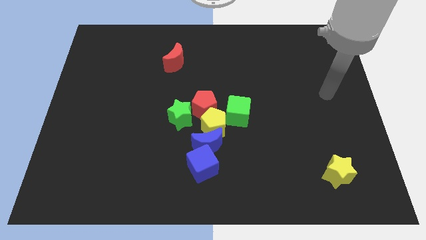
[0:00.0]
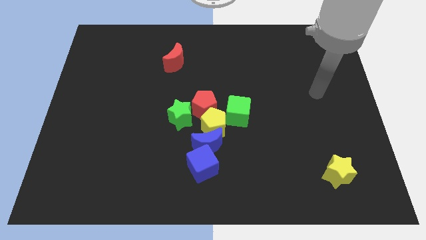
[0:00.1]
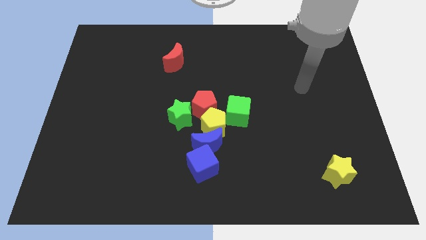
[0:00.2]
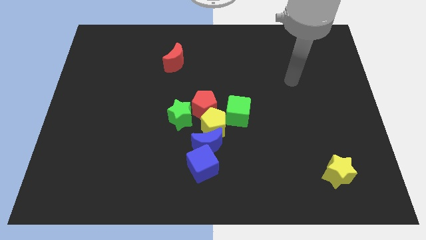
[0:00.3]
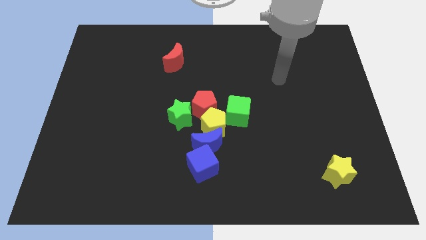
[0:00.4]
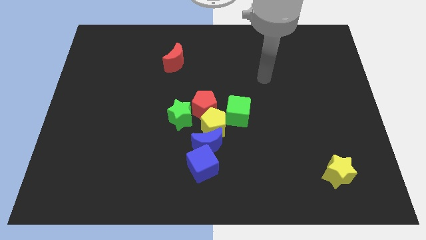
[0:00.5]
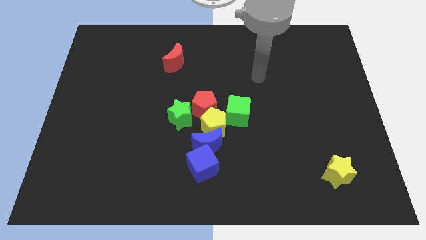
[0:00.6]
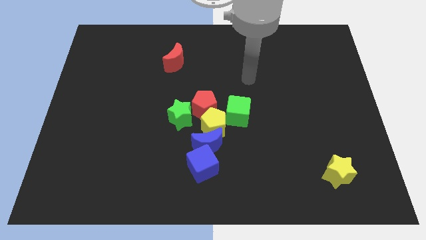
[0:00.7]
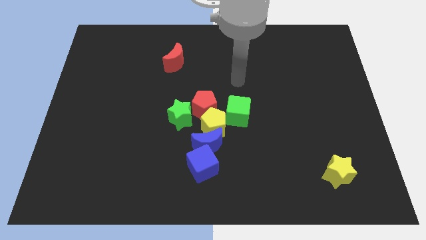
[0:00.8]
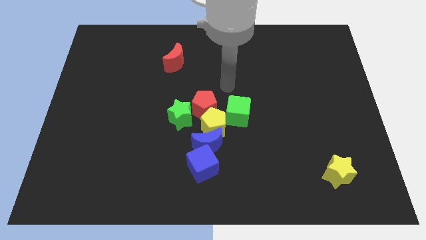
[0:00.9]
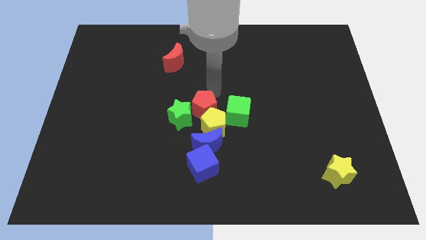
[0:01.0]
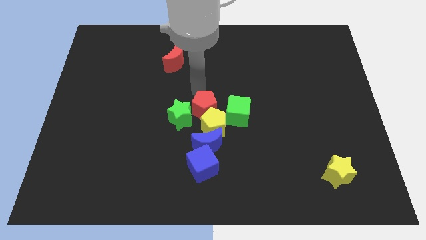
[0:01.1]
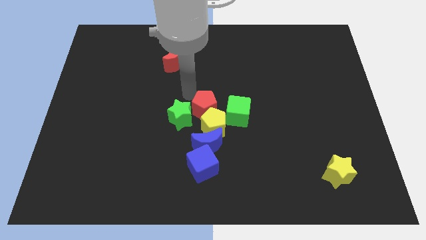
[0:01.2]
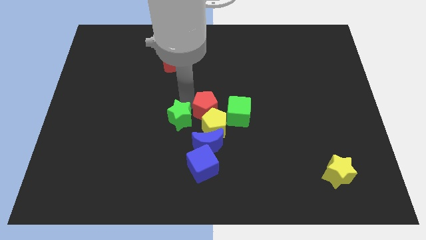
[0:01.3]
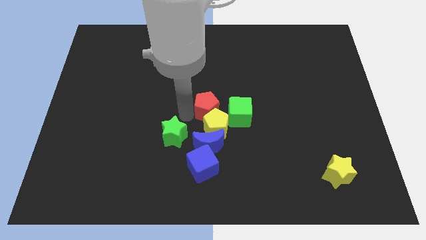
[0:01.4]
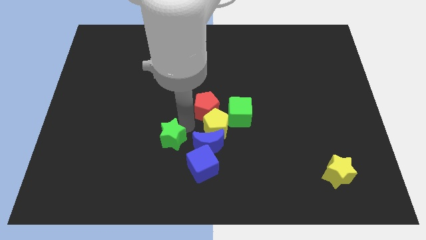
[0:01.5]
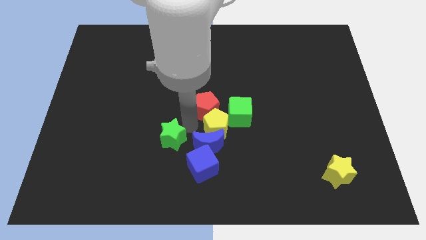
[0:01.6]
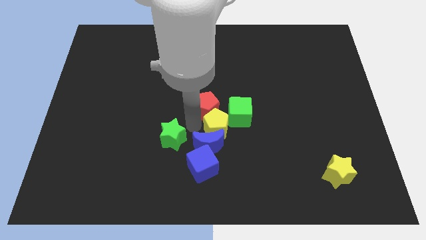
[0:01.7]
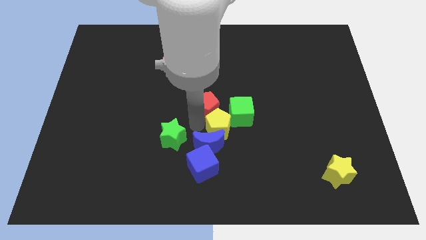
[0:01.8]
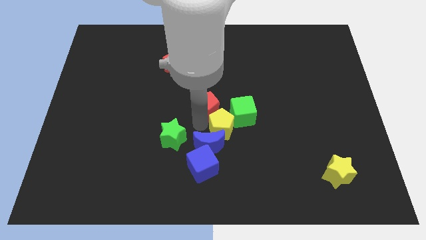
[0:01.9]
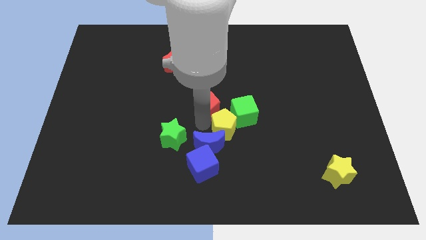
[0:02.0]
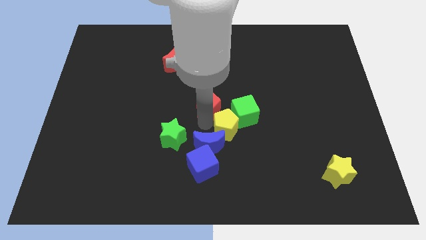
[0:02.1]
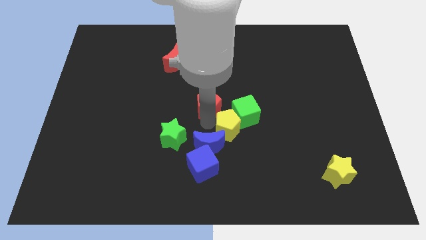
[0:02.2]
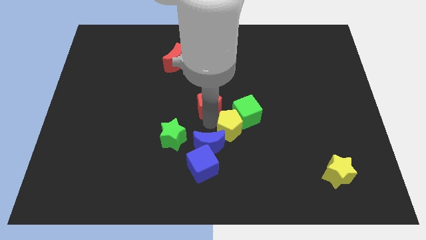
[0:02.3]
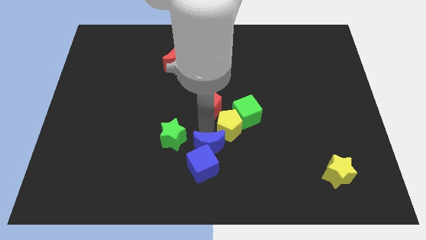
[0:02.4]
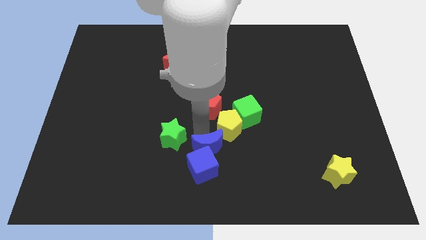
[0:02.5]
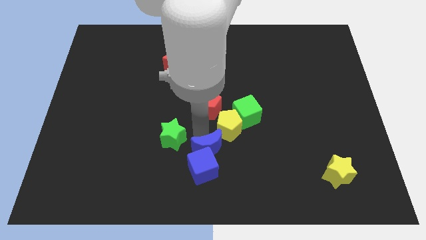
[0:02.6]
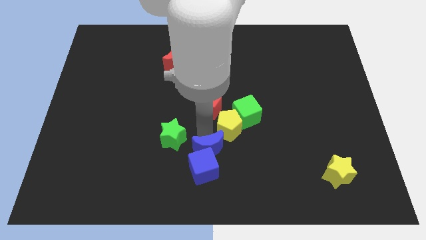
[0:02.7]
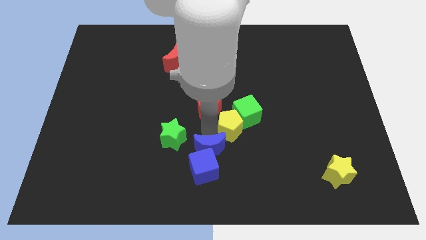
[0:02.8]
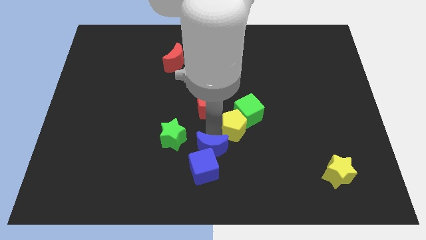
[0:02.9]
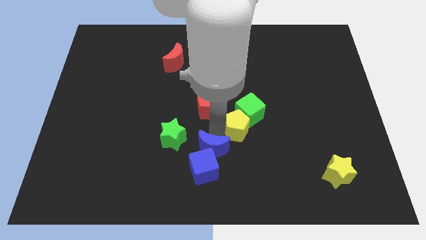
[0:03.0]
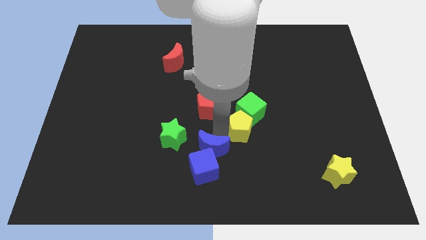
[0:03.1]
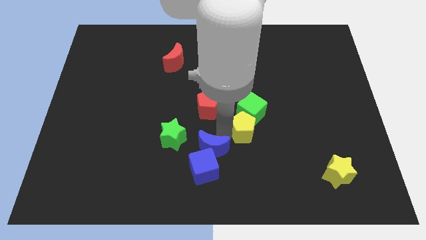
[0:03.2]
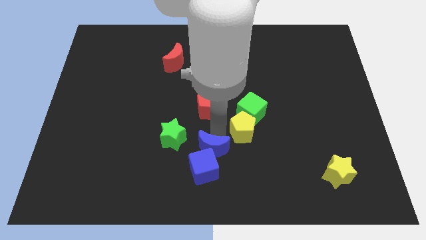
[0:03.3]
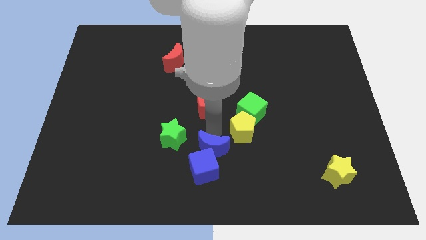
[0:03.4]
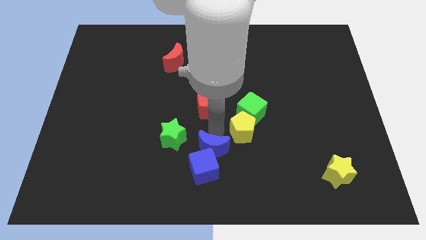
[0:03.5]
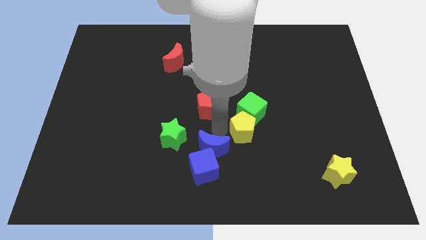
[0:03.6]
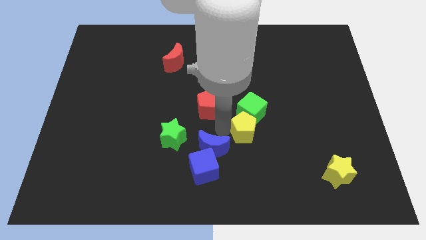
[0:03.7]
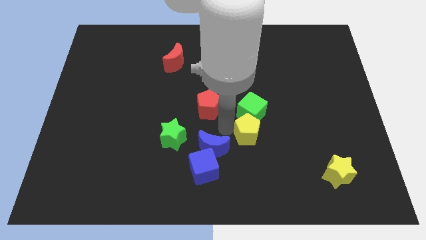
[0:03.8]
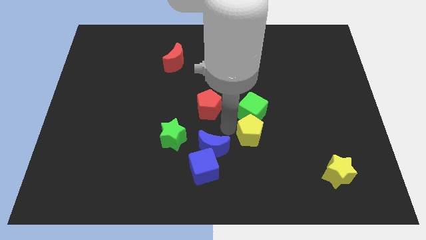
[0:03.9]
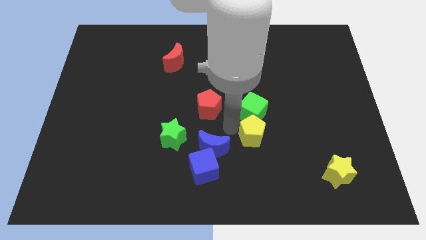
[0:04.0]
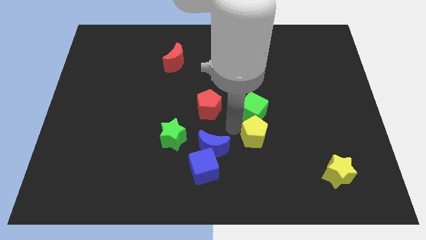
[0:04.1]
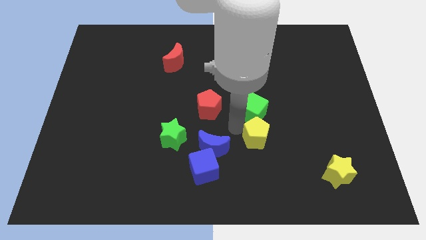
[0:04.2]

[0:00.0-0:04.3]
pull the yellow pentagon apart from the group

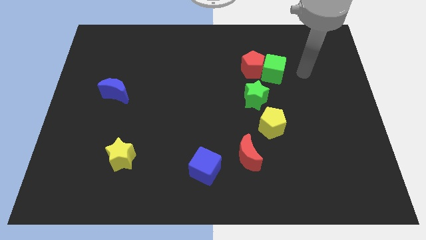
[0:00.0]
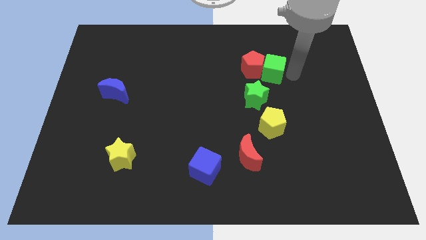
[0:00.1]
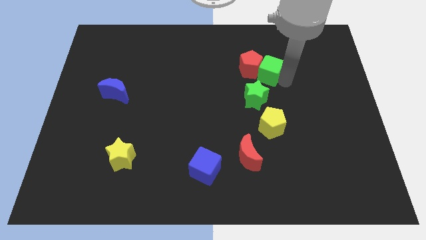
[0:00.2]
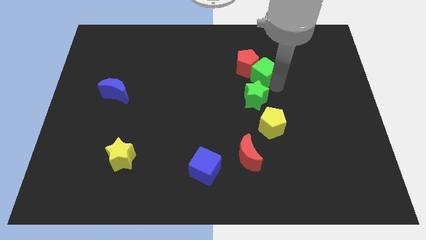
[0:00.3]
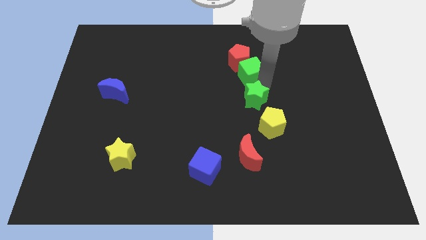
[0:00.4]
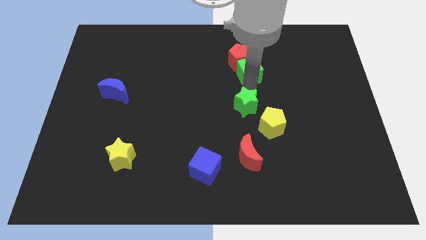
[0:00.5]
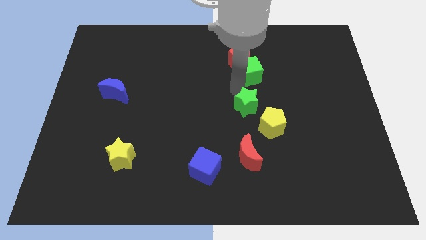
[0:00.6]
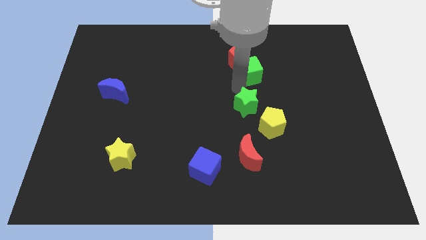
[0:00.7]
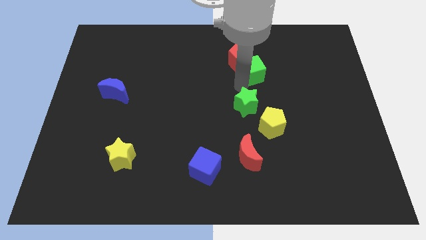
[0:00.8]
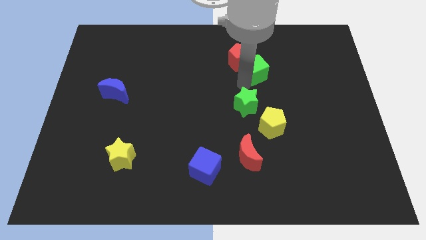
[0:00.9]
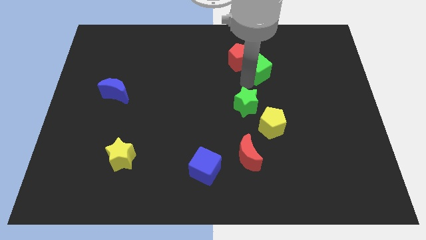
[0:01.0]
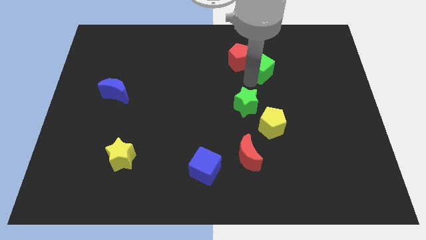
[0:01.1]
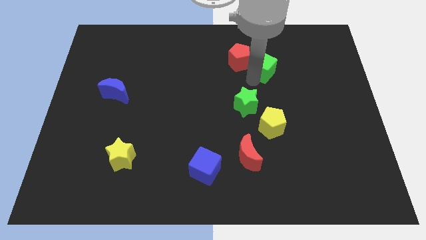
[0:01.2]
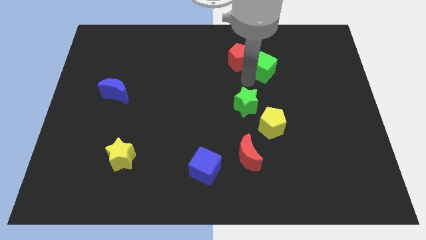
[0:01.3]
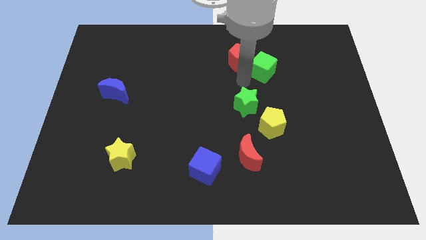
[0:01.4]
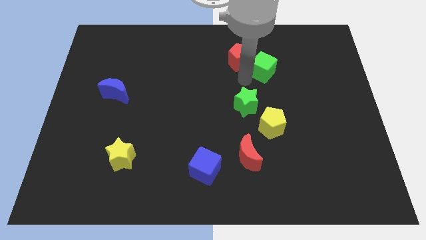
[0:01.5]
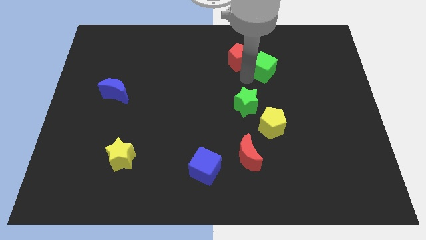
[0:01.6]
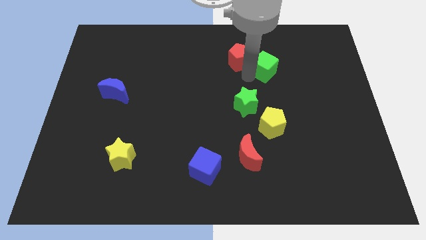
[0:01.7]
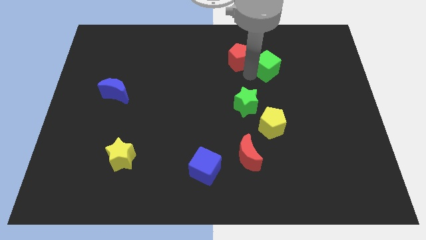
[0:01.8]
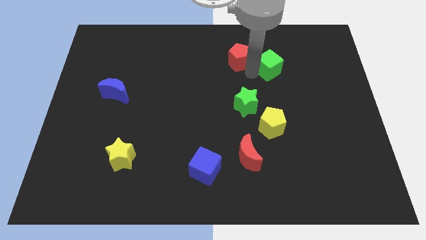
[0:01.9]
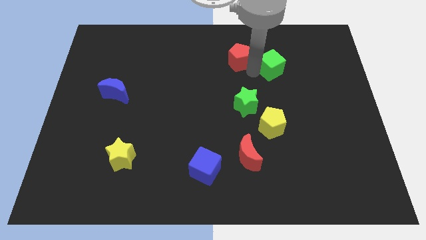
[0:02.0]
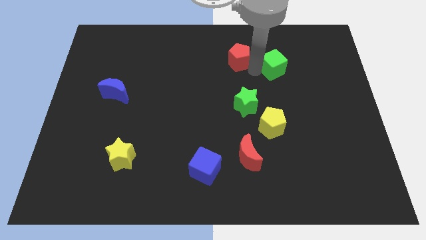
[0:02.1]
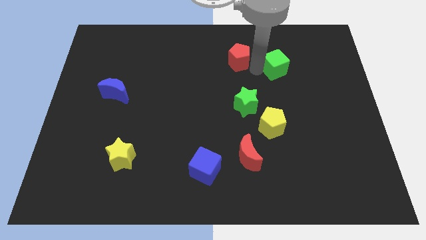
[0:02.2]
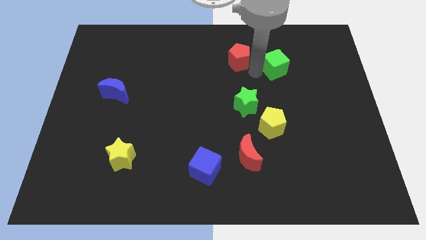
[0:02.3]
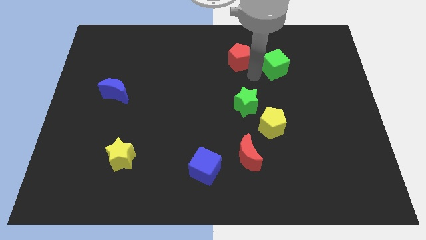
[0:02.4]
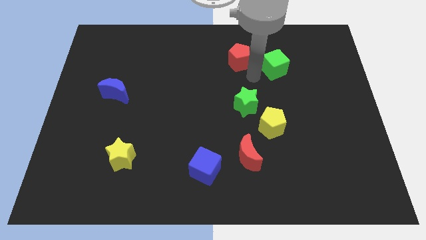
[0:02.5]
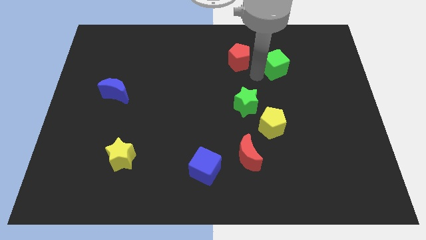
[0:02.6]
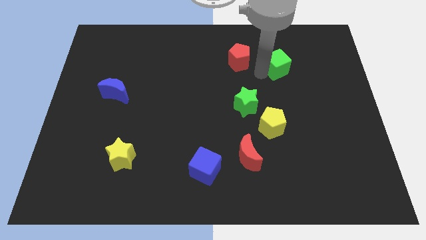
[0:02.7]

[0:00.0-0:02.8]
pull the green cube apart from the red pentagon and green star

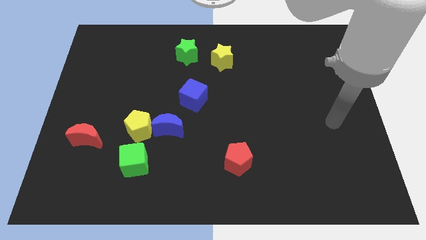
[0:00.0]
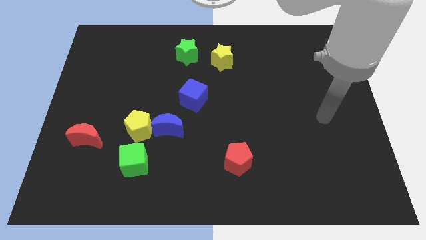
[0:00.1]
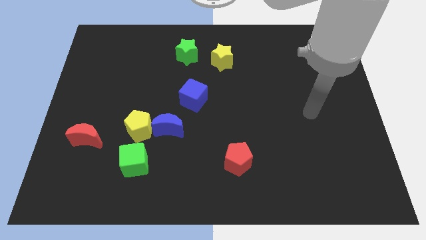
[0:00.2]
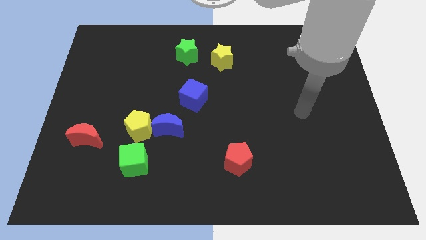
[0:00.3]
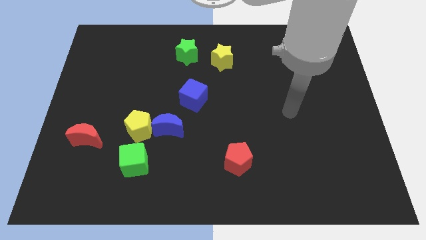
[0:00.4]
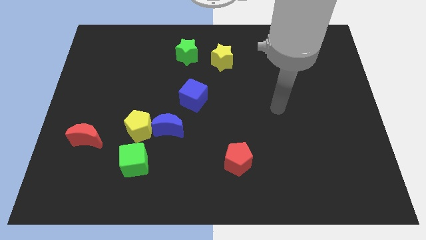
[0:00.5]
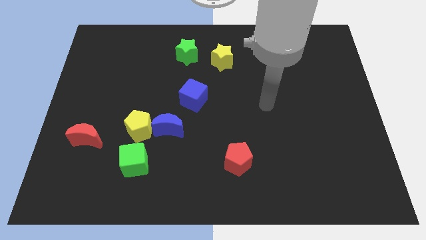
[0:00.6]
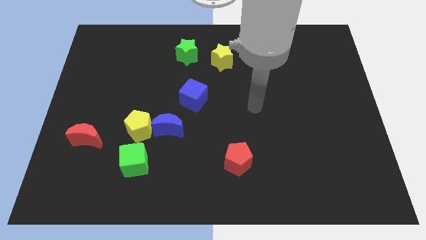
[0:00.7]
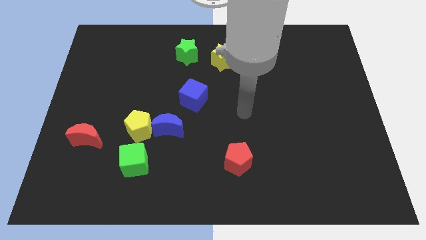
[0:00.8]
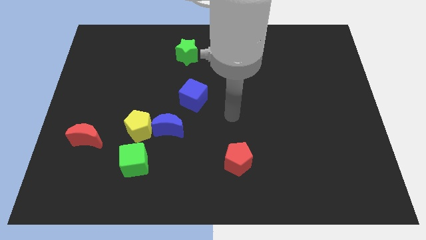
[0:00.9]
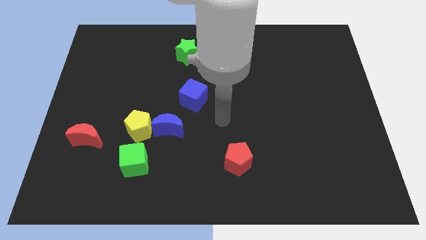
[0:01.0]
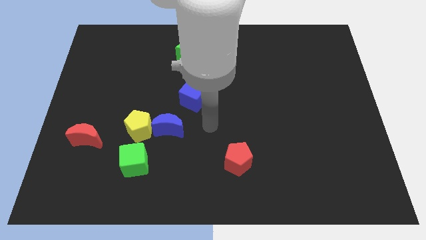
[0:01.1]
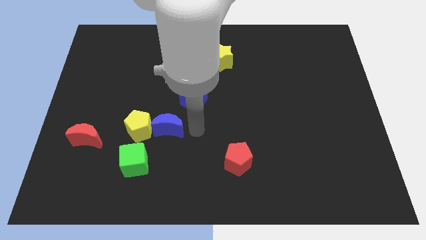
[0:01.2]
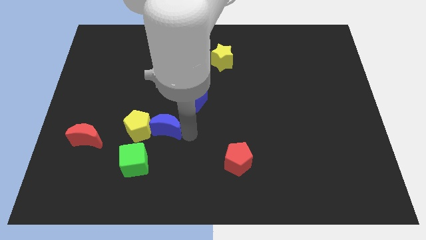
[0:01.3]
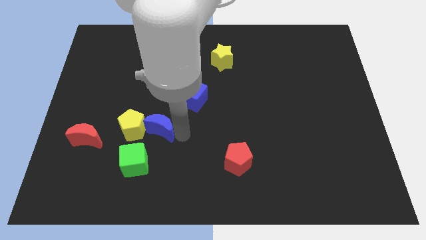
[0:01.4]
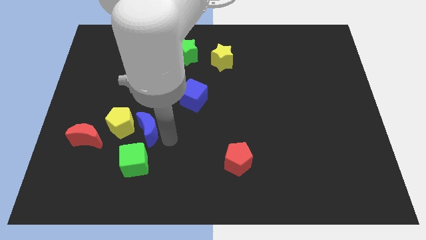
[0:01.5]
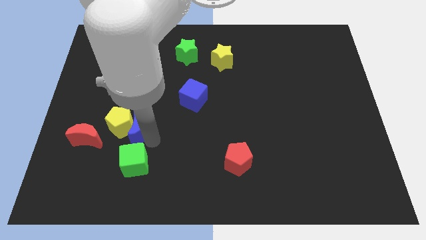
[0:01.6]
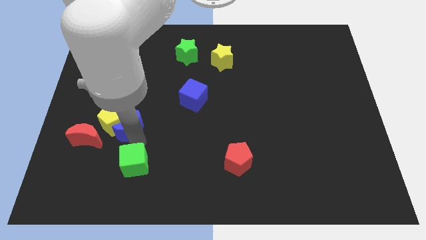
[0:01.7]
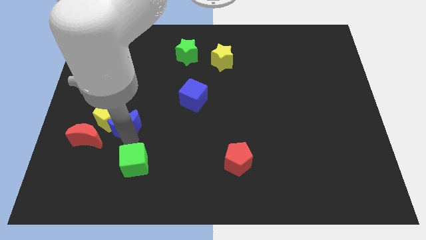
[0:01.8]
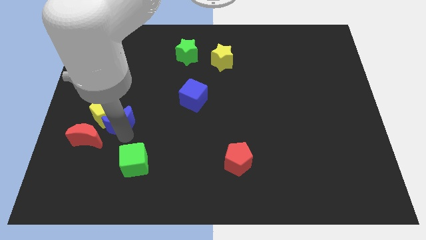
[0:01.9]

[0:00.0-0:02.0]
move the yellow pentagon away from the blue moon and green cube

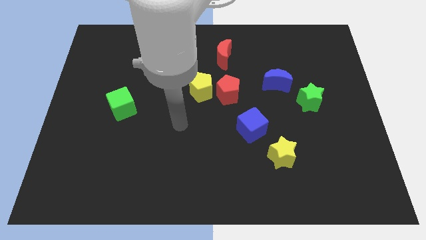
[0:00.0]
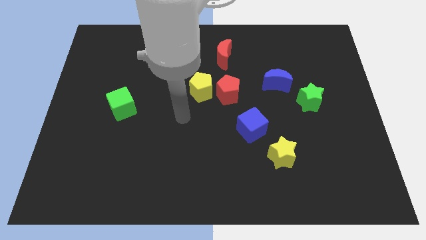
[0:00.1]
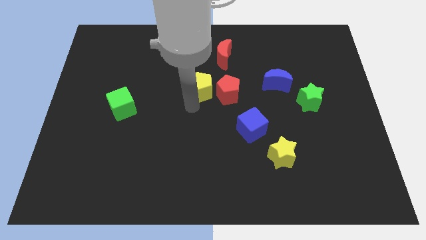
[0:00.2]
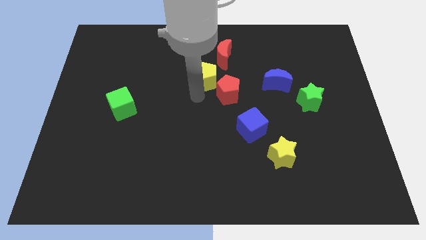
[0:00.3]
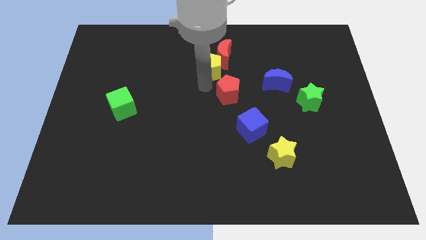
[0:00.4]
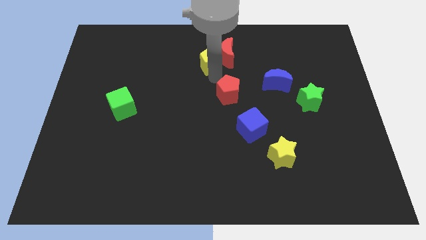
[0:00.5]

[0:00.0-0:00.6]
move the red pentagon away from the yellow pentagon
